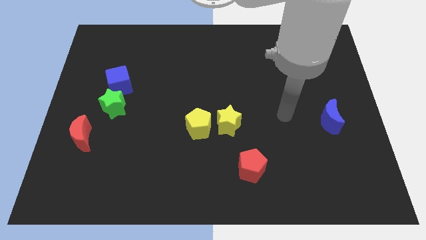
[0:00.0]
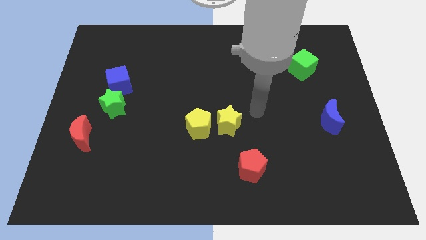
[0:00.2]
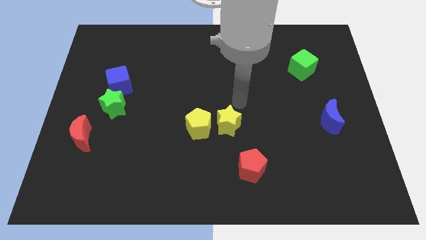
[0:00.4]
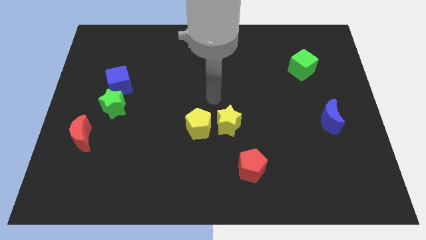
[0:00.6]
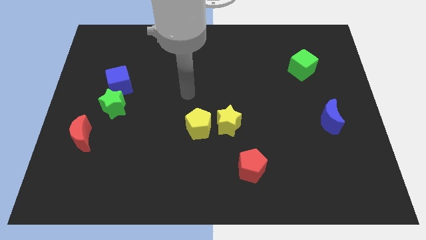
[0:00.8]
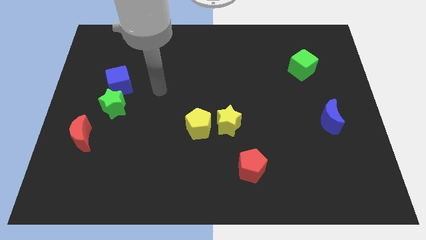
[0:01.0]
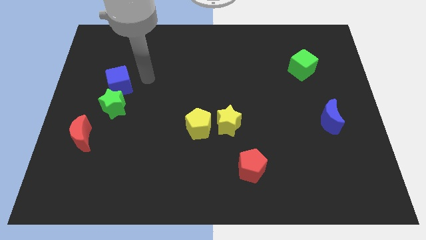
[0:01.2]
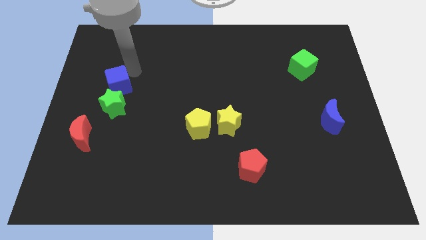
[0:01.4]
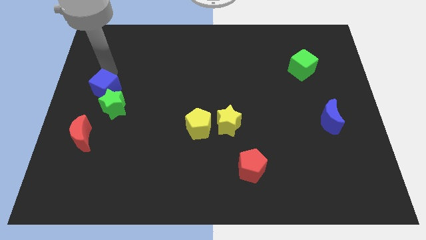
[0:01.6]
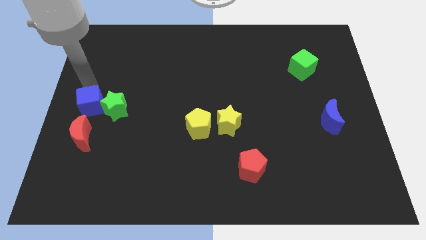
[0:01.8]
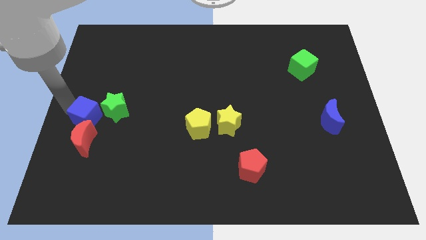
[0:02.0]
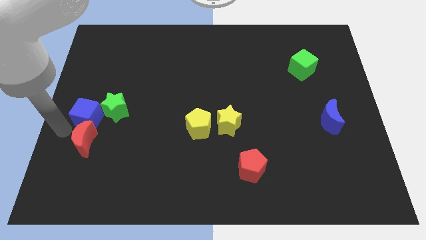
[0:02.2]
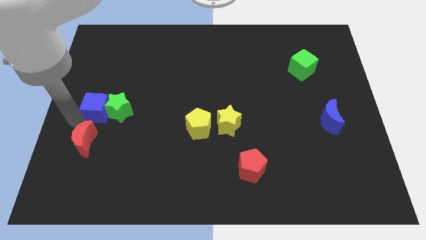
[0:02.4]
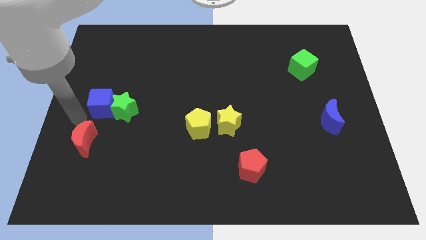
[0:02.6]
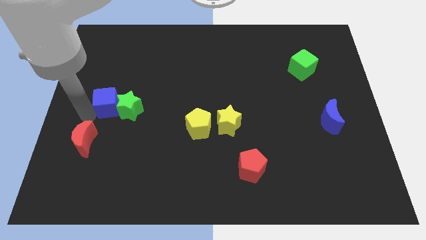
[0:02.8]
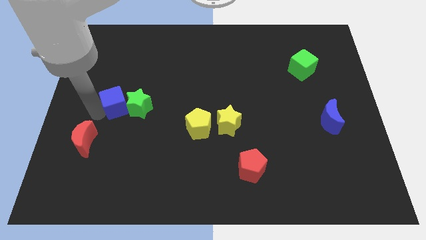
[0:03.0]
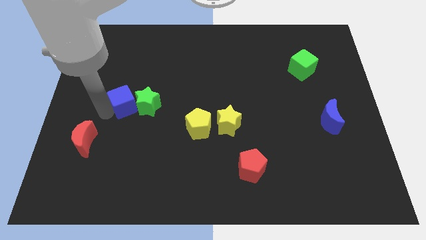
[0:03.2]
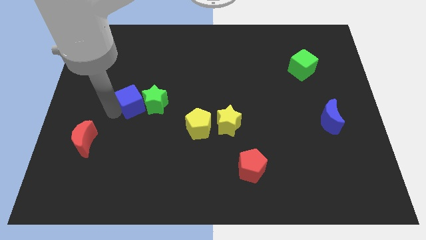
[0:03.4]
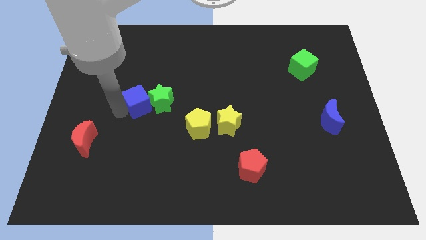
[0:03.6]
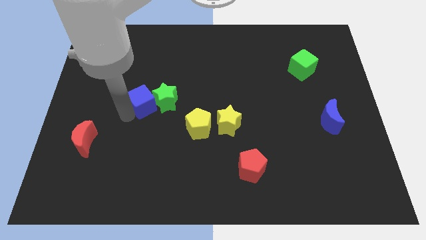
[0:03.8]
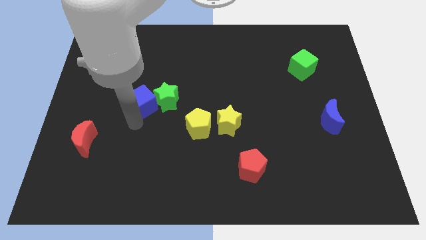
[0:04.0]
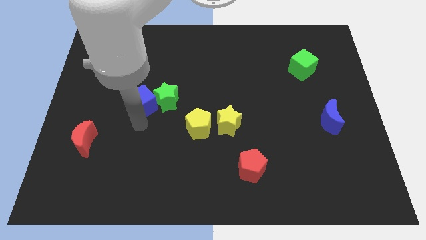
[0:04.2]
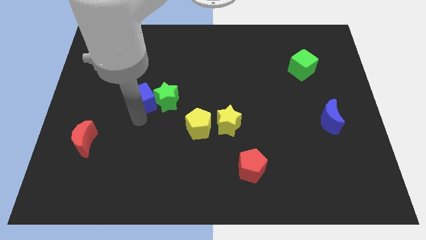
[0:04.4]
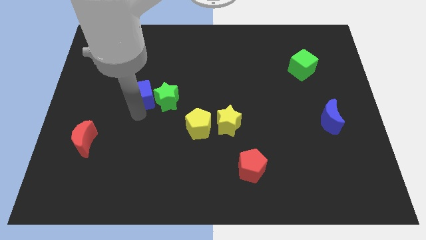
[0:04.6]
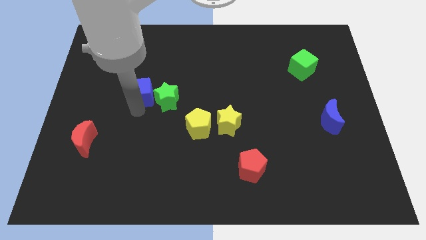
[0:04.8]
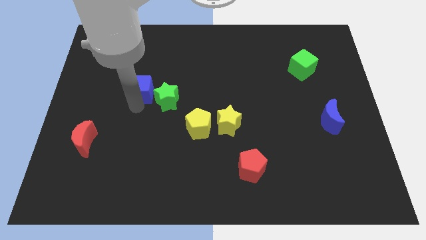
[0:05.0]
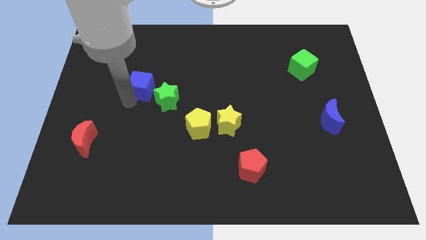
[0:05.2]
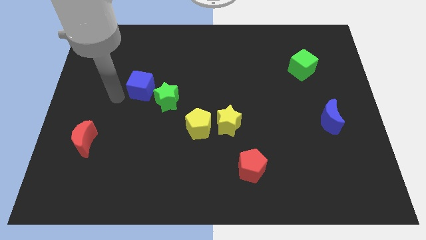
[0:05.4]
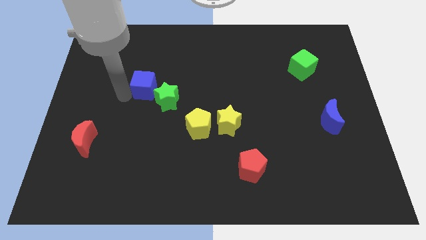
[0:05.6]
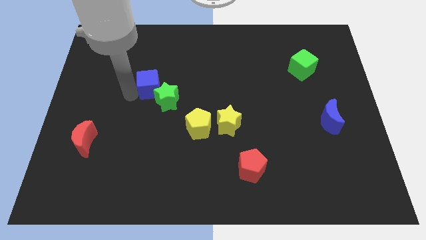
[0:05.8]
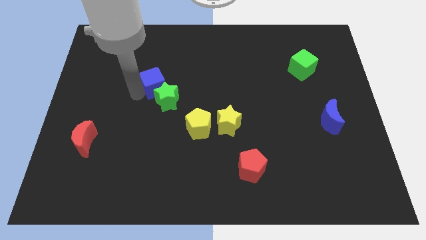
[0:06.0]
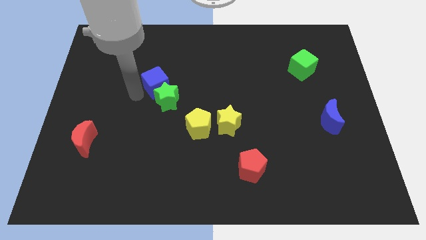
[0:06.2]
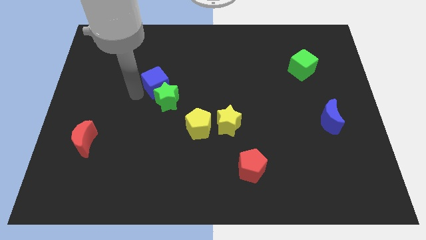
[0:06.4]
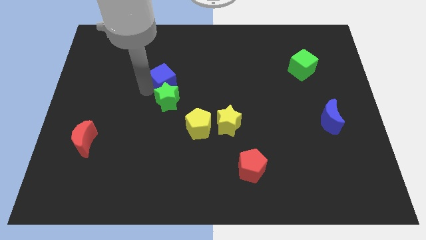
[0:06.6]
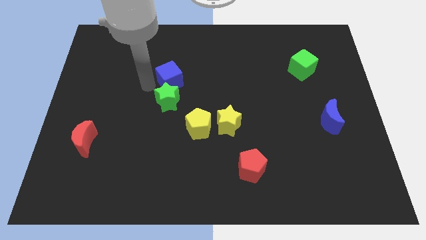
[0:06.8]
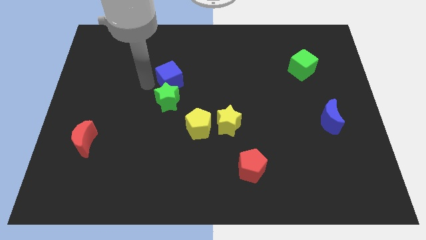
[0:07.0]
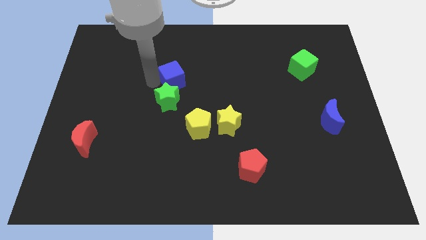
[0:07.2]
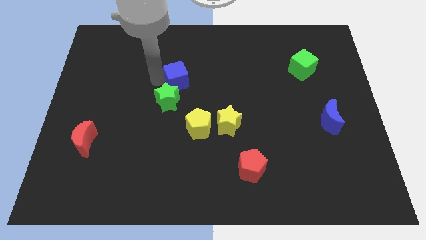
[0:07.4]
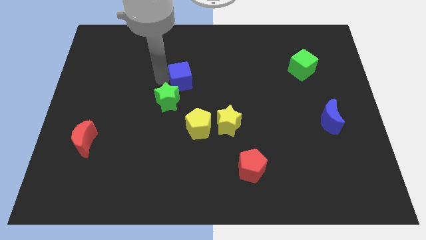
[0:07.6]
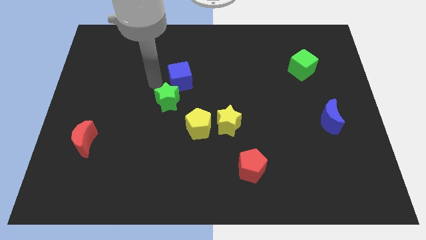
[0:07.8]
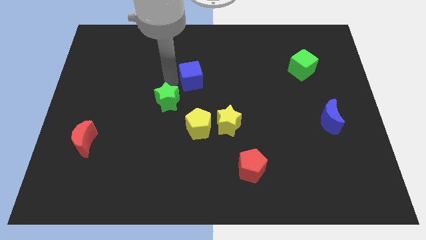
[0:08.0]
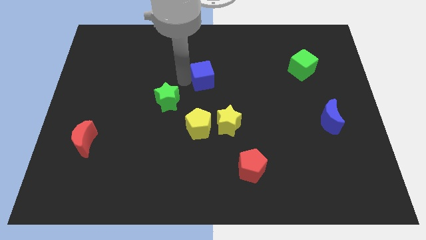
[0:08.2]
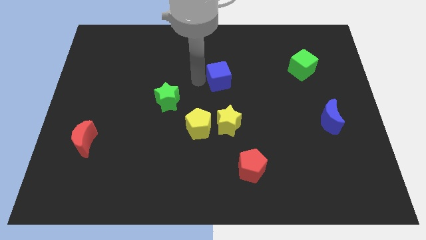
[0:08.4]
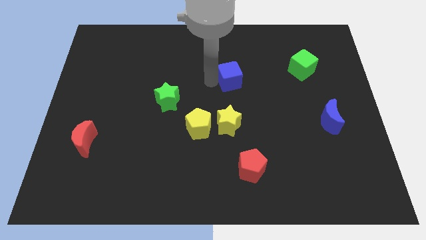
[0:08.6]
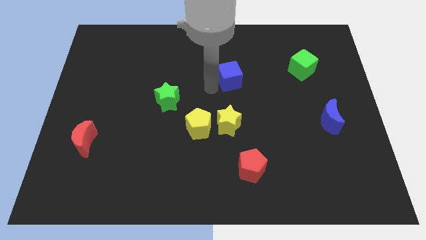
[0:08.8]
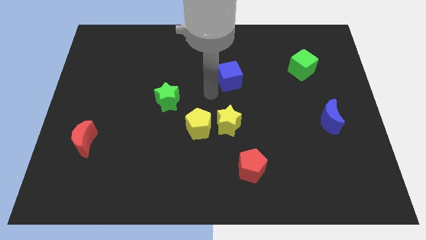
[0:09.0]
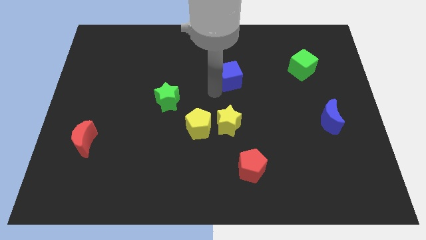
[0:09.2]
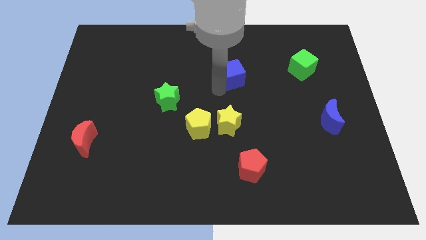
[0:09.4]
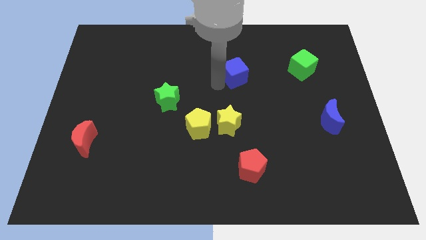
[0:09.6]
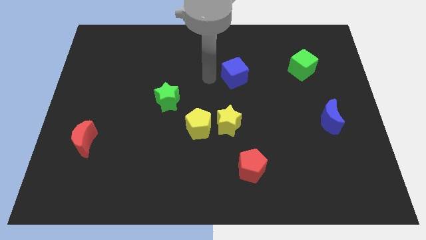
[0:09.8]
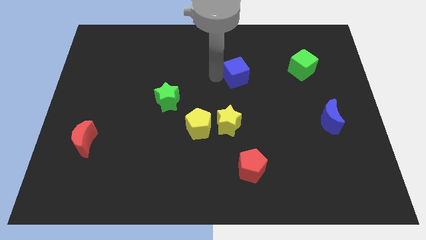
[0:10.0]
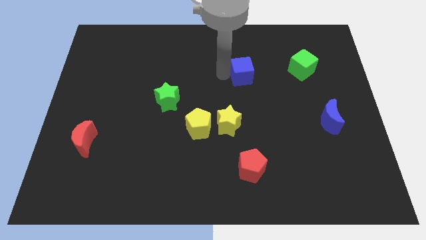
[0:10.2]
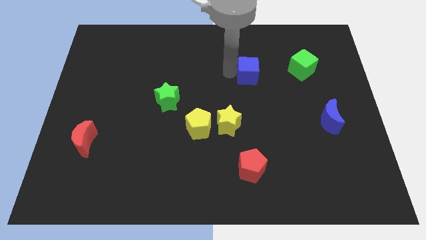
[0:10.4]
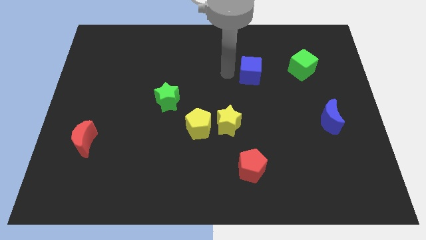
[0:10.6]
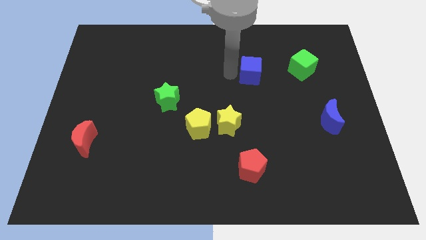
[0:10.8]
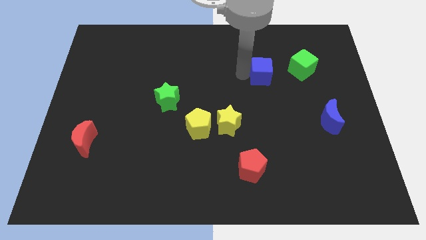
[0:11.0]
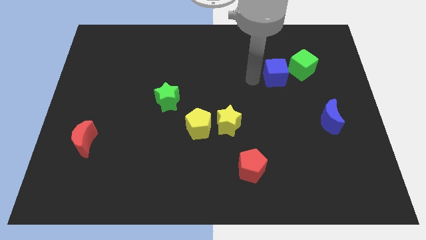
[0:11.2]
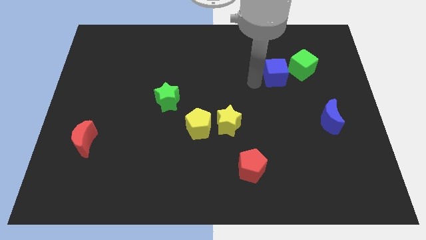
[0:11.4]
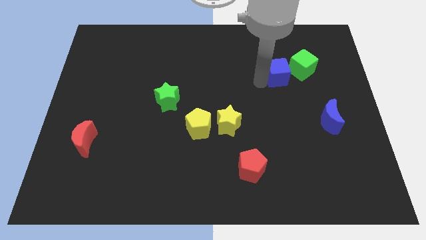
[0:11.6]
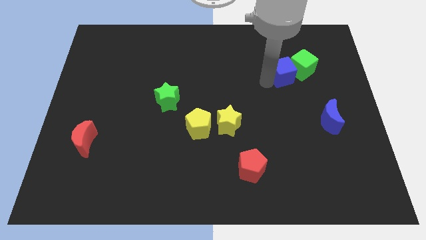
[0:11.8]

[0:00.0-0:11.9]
slide the blue cube to the green cube

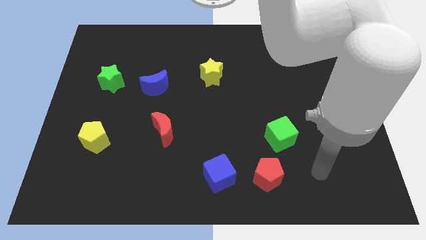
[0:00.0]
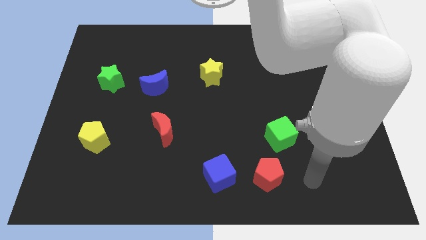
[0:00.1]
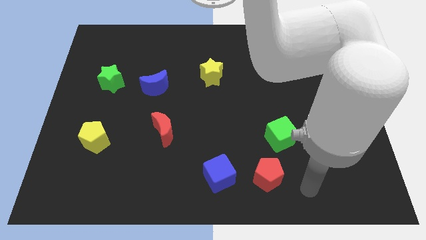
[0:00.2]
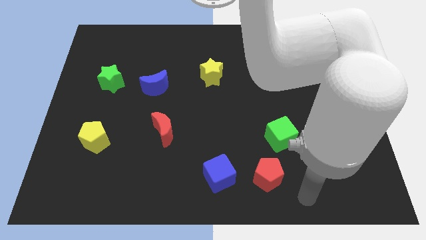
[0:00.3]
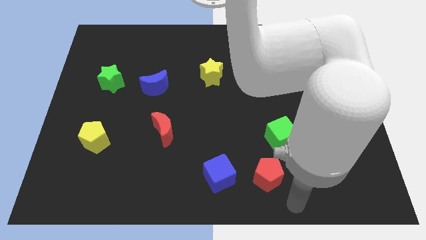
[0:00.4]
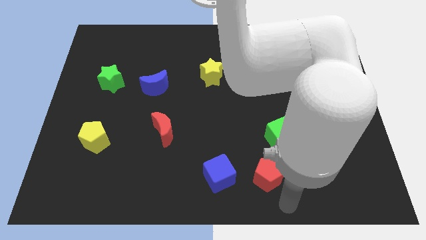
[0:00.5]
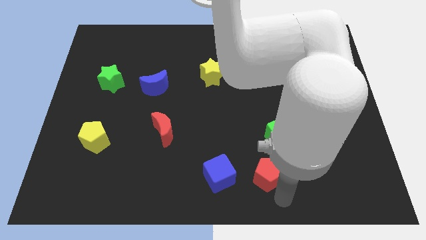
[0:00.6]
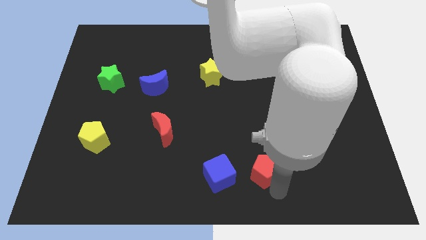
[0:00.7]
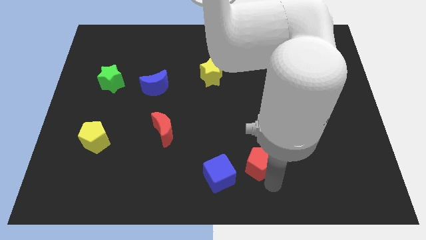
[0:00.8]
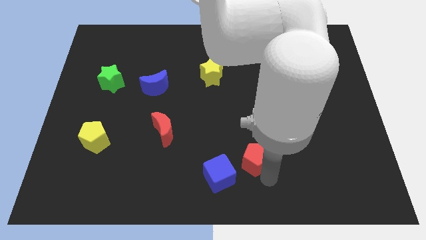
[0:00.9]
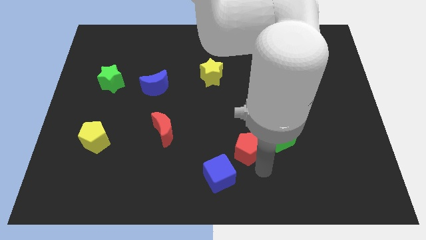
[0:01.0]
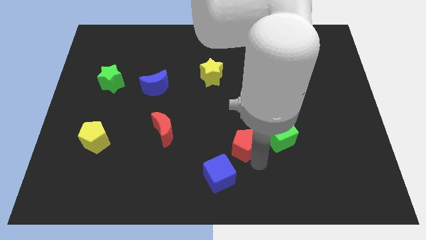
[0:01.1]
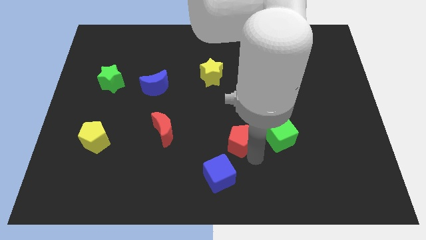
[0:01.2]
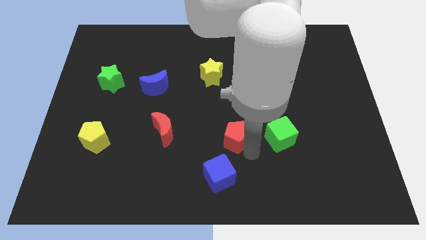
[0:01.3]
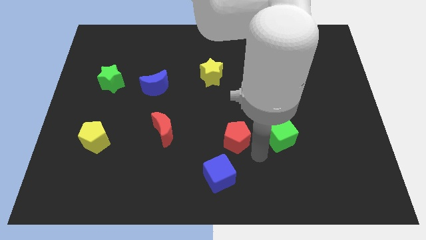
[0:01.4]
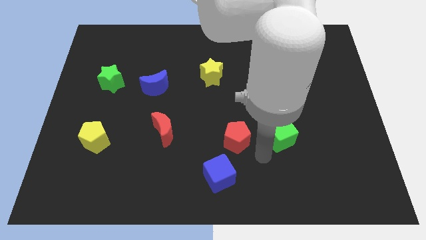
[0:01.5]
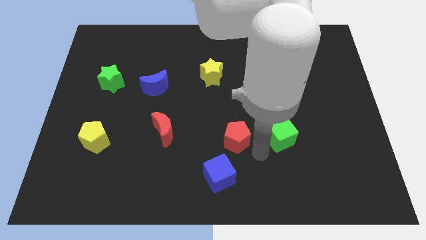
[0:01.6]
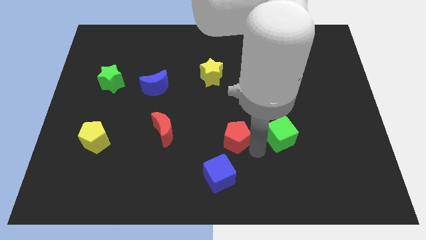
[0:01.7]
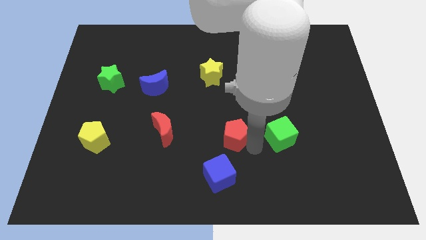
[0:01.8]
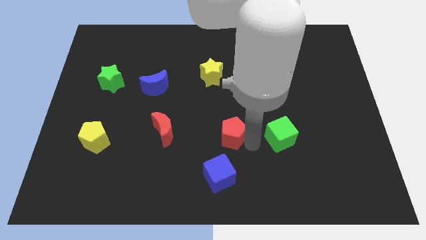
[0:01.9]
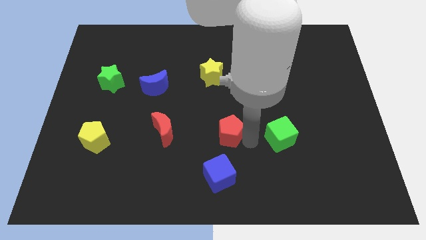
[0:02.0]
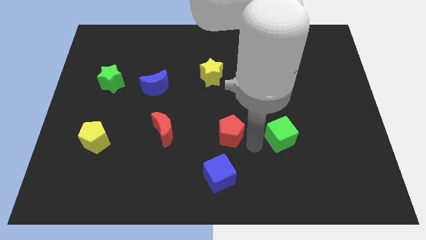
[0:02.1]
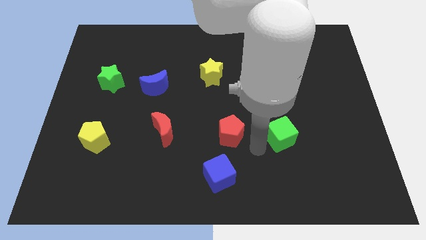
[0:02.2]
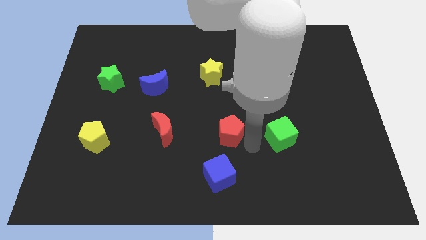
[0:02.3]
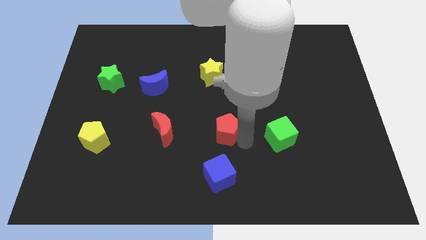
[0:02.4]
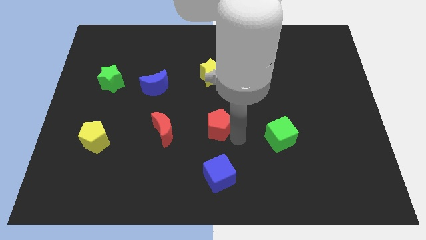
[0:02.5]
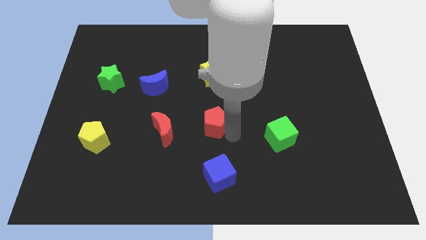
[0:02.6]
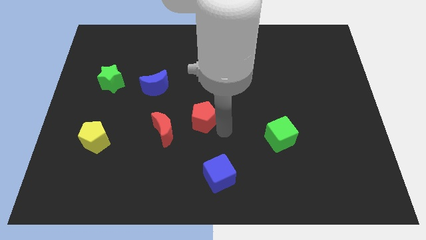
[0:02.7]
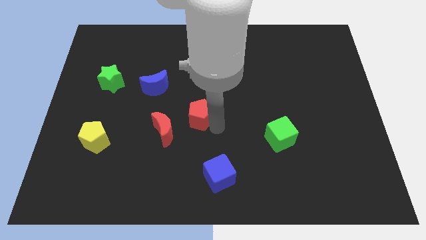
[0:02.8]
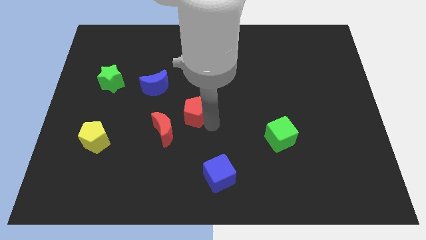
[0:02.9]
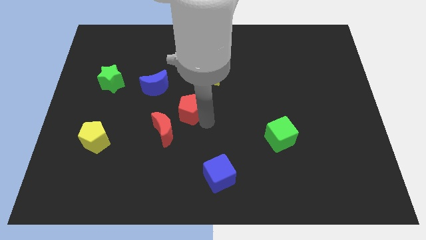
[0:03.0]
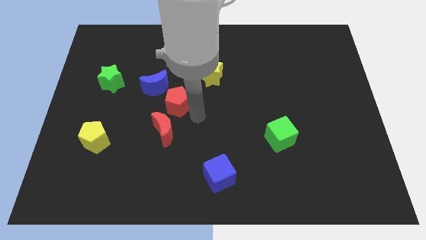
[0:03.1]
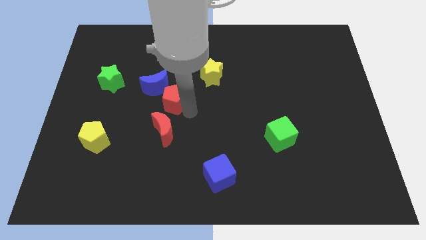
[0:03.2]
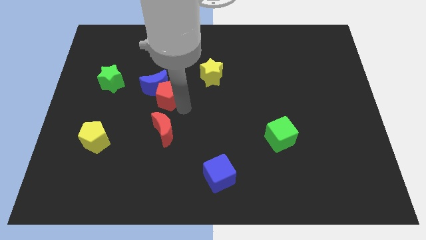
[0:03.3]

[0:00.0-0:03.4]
push the red pentagon towards the blue moon
